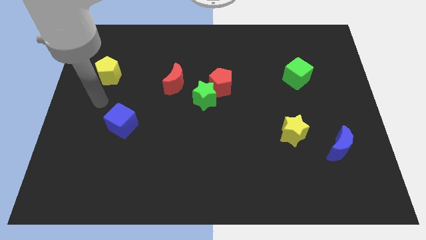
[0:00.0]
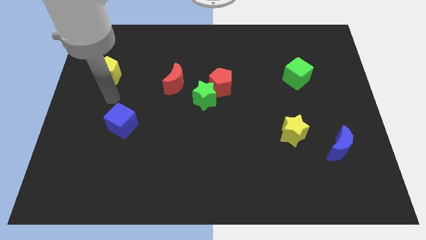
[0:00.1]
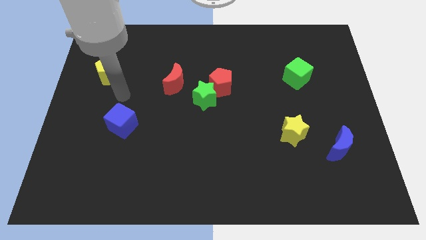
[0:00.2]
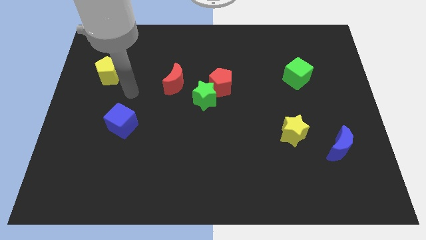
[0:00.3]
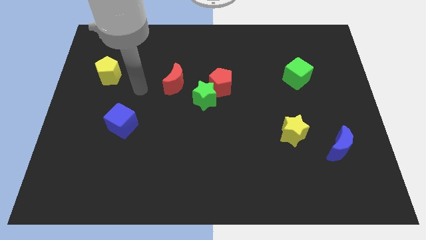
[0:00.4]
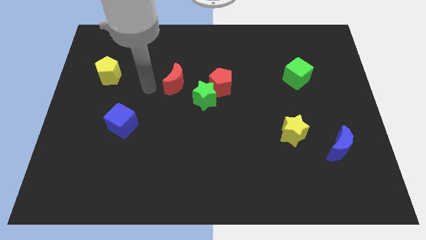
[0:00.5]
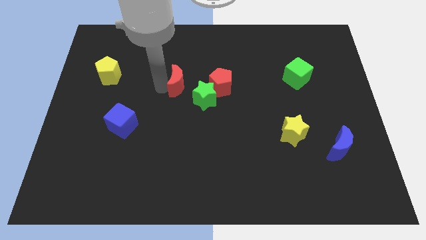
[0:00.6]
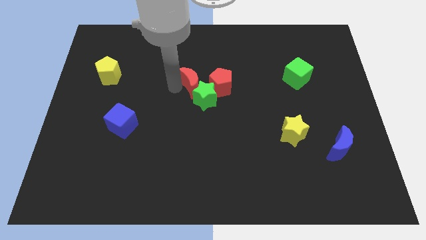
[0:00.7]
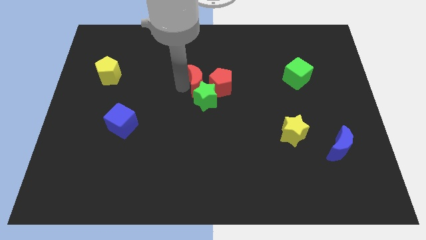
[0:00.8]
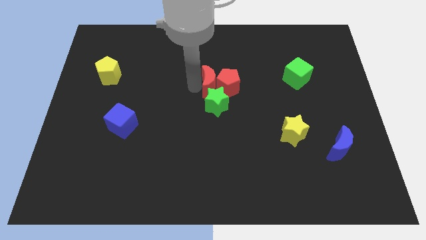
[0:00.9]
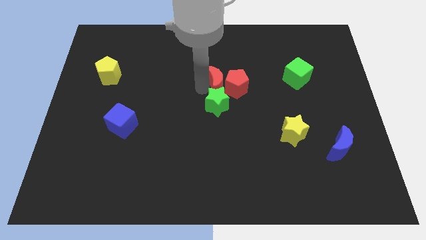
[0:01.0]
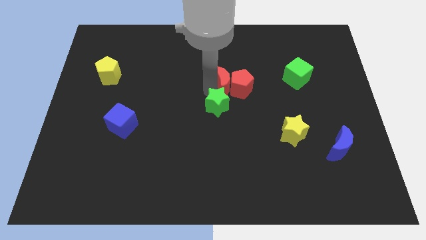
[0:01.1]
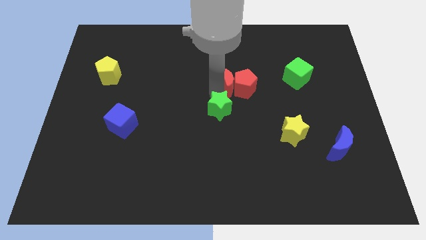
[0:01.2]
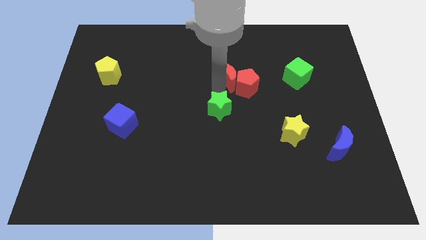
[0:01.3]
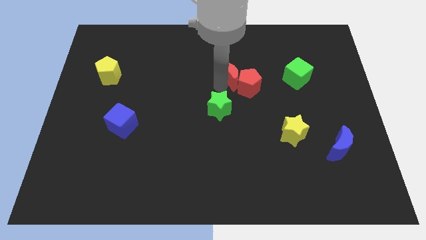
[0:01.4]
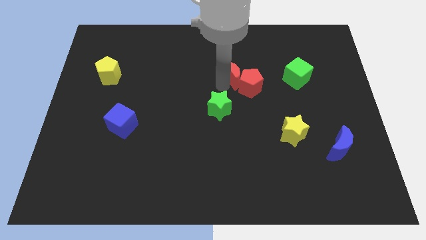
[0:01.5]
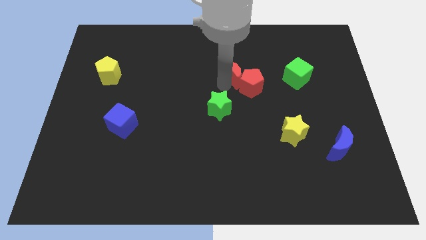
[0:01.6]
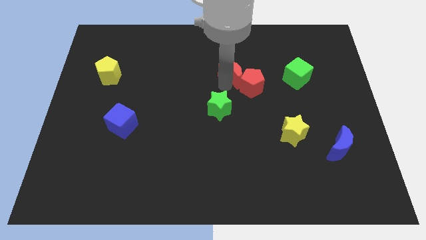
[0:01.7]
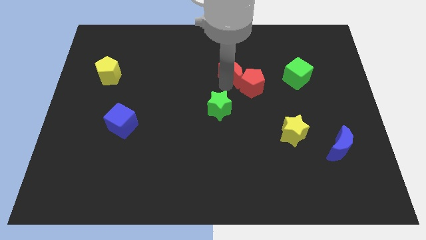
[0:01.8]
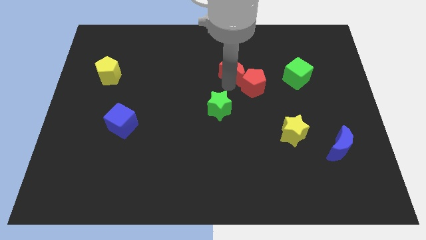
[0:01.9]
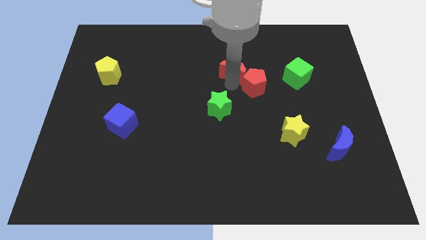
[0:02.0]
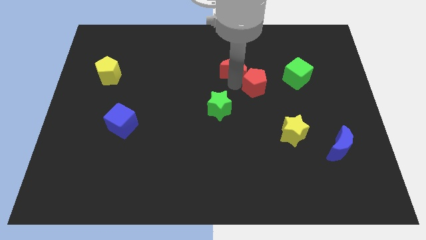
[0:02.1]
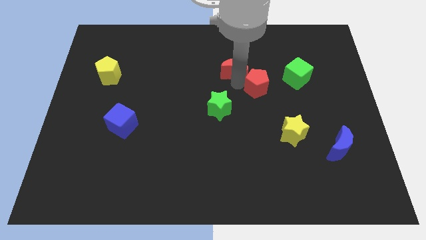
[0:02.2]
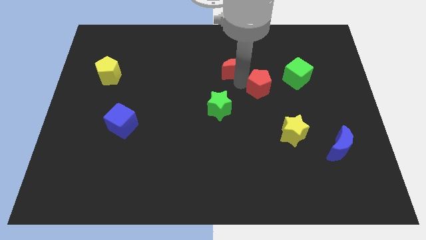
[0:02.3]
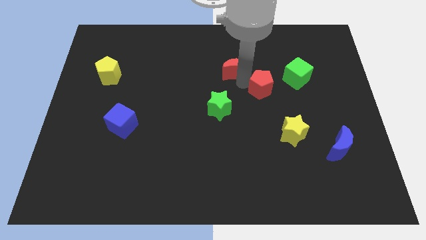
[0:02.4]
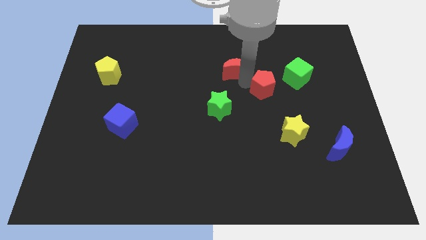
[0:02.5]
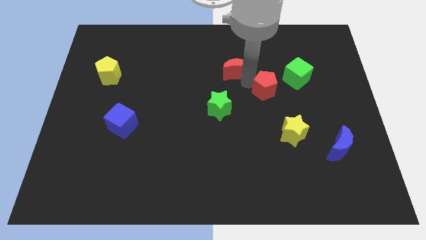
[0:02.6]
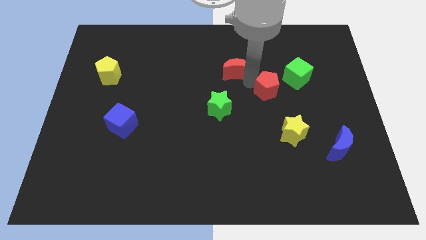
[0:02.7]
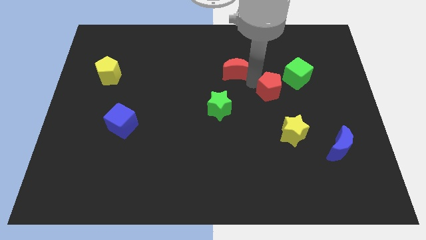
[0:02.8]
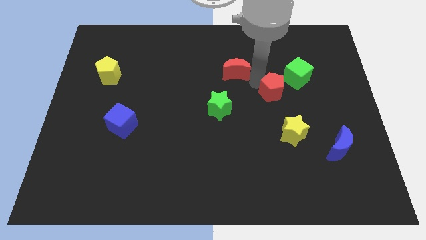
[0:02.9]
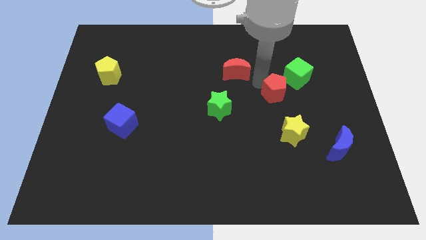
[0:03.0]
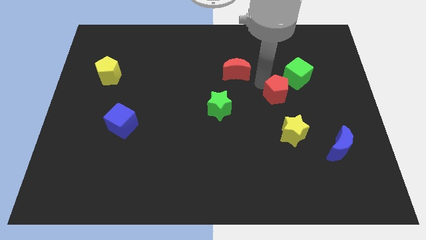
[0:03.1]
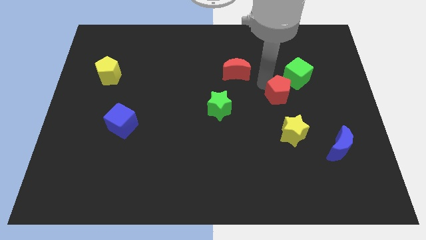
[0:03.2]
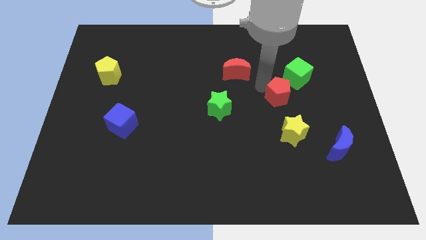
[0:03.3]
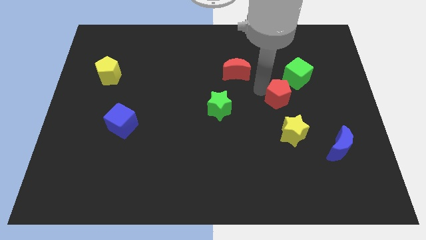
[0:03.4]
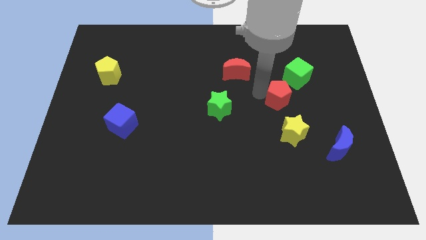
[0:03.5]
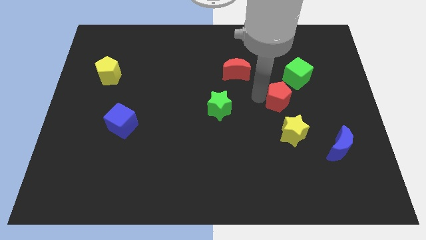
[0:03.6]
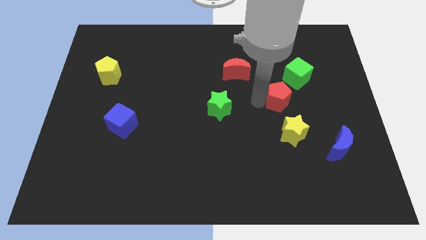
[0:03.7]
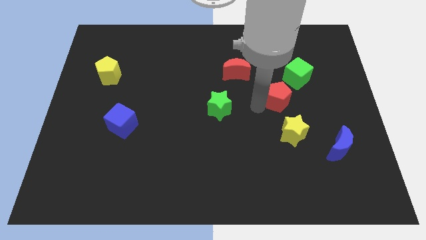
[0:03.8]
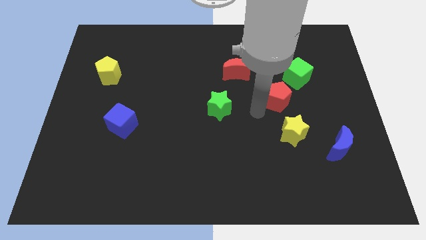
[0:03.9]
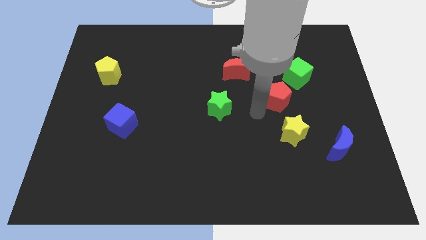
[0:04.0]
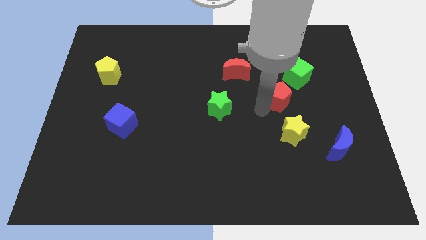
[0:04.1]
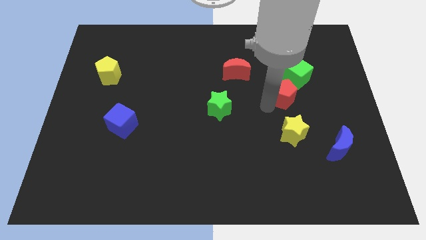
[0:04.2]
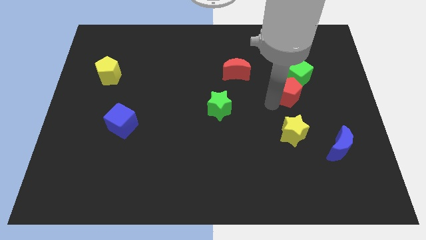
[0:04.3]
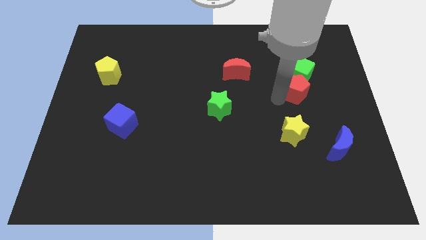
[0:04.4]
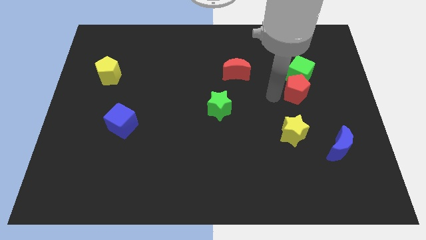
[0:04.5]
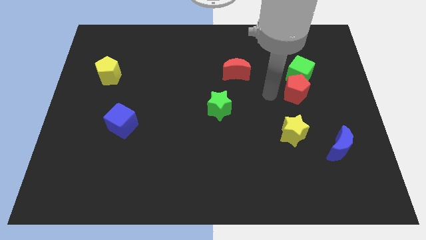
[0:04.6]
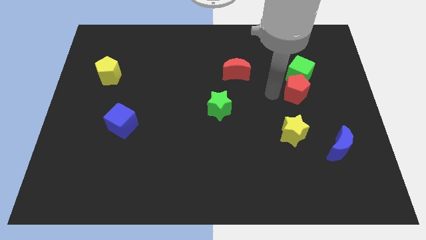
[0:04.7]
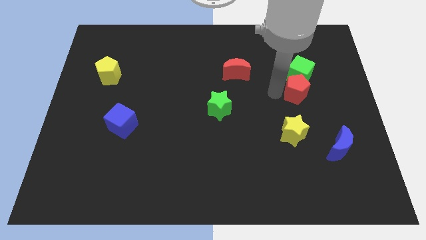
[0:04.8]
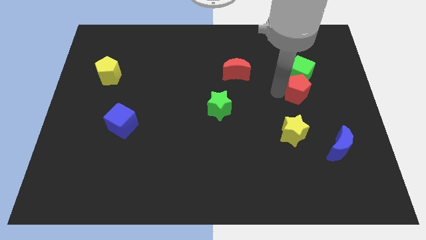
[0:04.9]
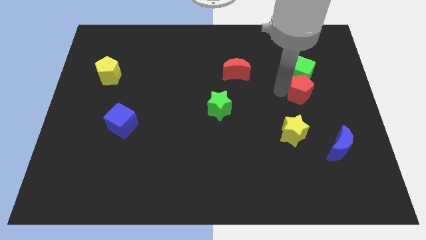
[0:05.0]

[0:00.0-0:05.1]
move the red pentagon to the bottom right of the green cube

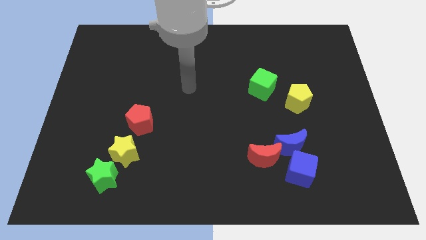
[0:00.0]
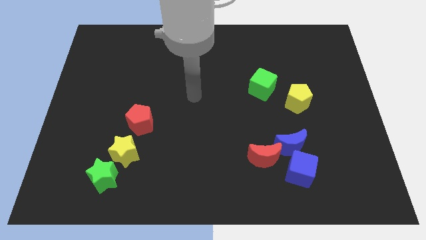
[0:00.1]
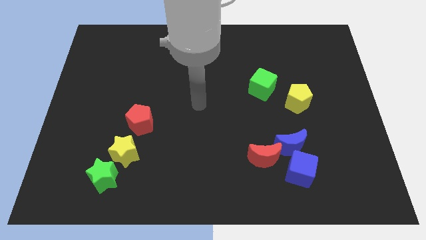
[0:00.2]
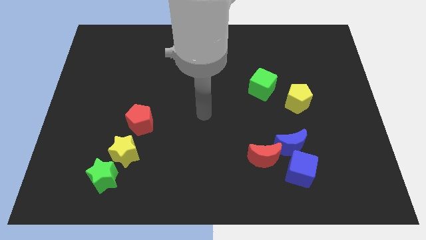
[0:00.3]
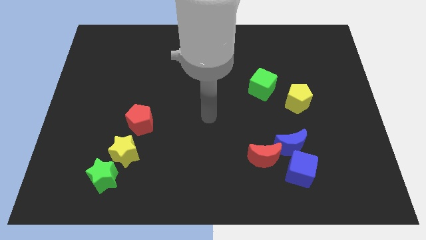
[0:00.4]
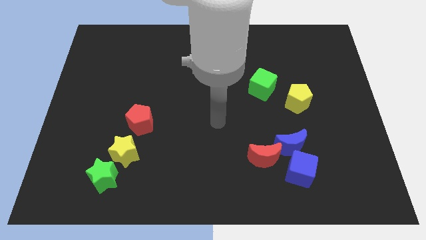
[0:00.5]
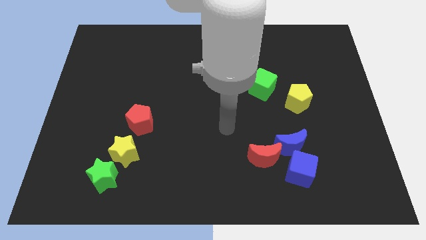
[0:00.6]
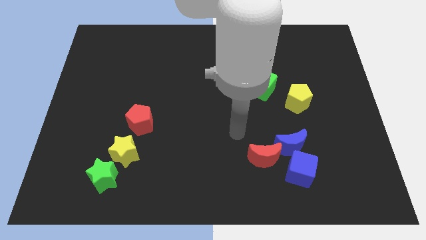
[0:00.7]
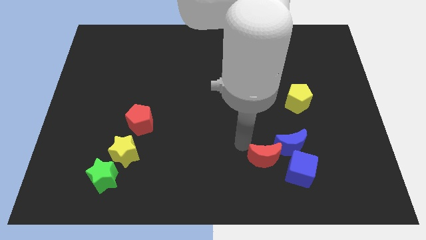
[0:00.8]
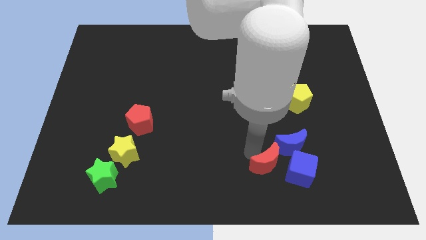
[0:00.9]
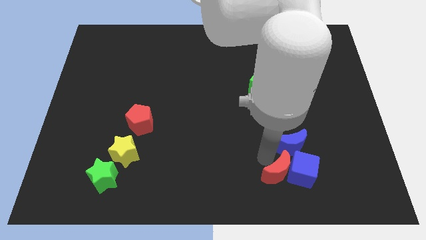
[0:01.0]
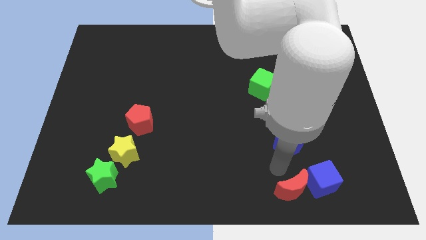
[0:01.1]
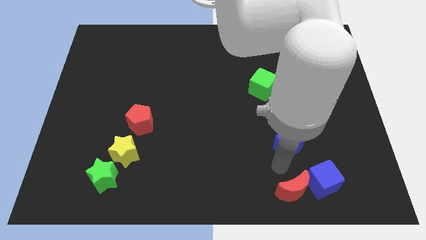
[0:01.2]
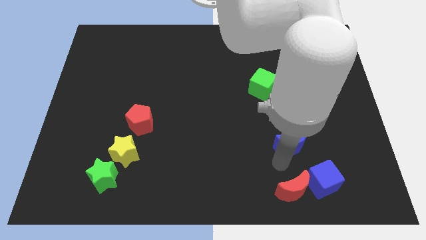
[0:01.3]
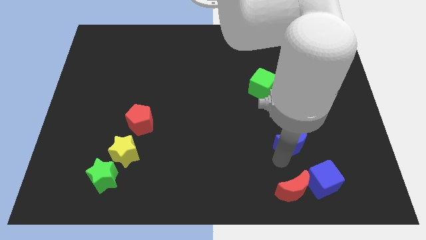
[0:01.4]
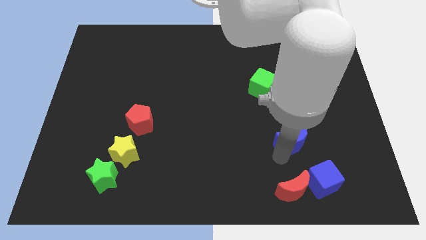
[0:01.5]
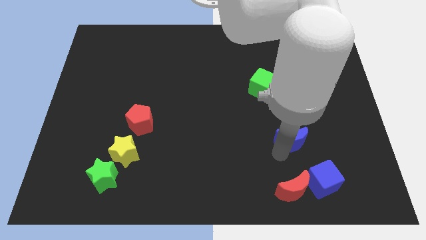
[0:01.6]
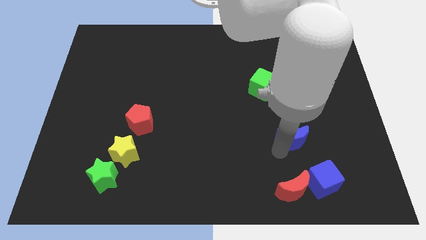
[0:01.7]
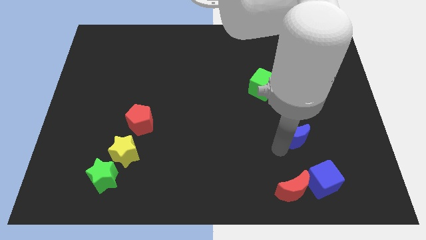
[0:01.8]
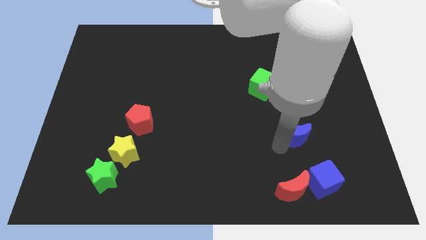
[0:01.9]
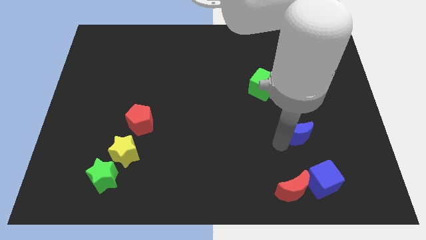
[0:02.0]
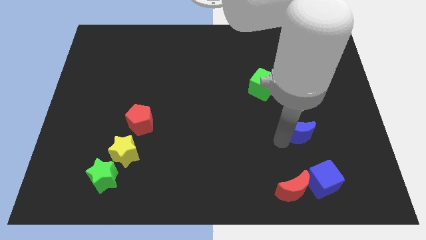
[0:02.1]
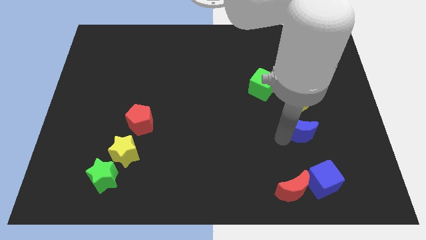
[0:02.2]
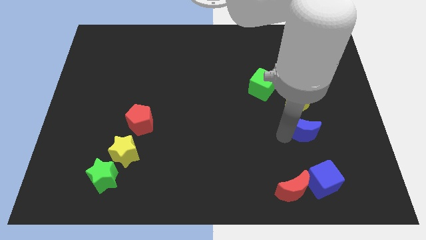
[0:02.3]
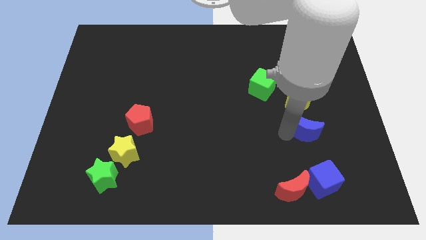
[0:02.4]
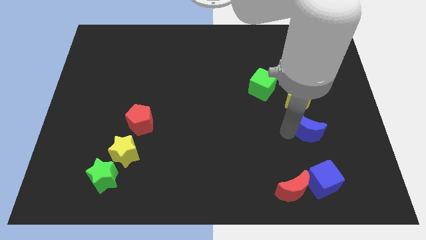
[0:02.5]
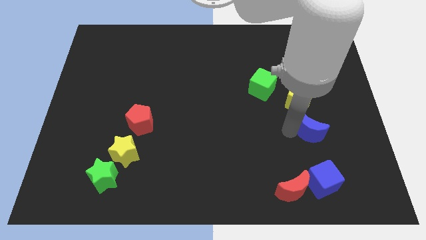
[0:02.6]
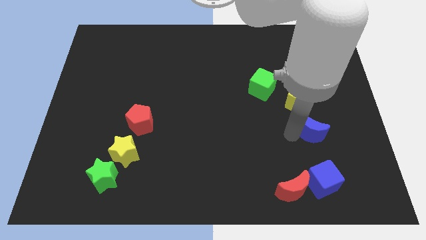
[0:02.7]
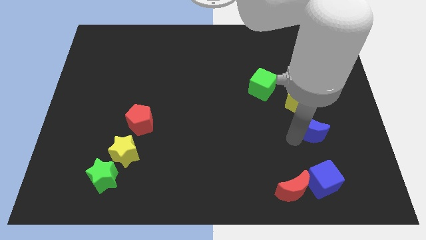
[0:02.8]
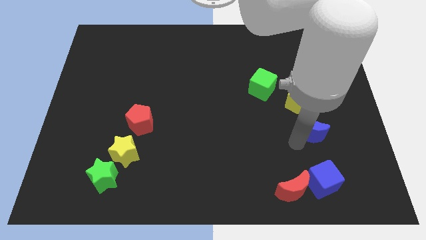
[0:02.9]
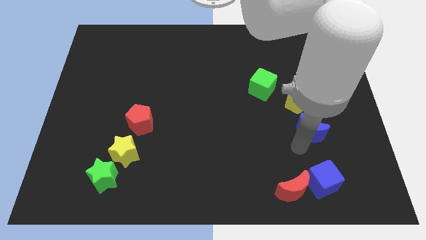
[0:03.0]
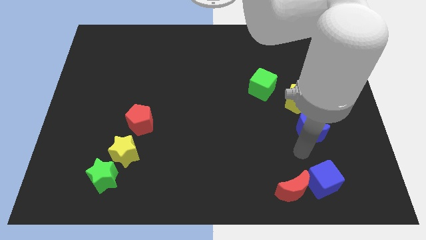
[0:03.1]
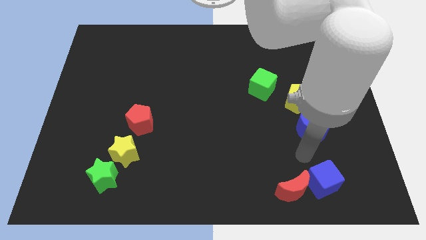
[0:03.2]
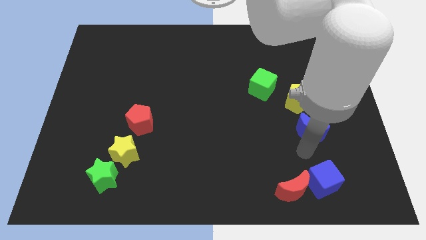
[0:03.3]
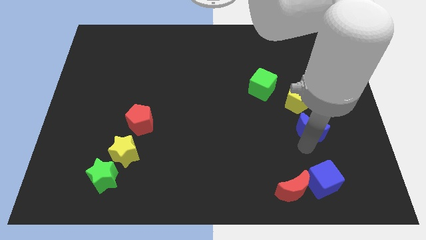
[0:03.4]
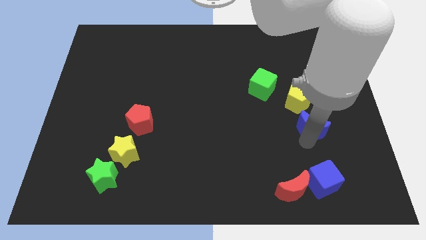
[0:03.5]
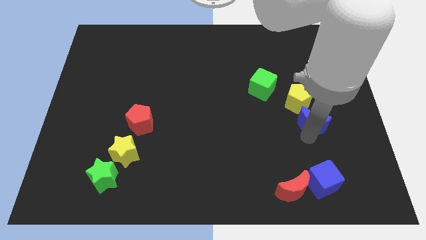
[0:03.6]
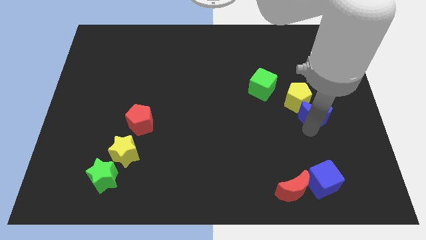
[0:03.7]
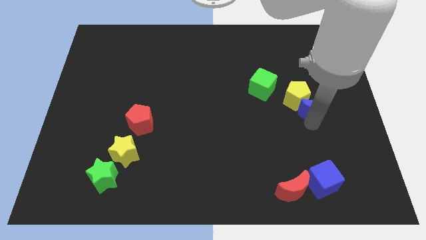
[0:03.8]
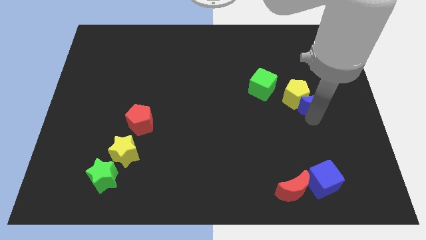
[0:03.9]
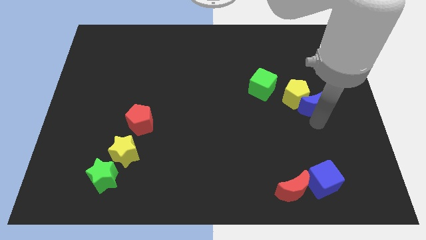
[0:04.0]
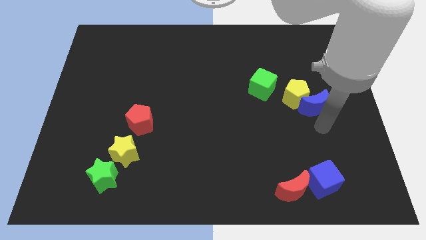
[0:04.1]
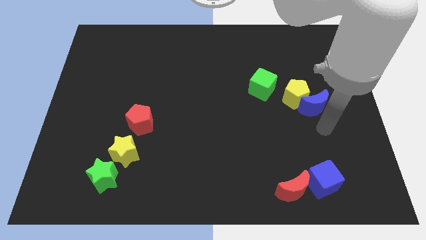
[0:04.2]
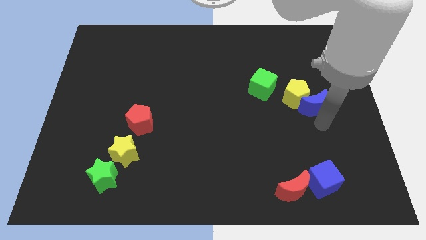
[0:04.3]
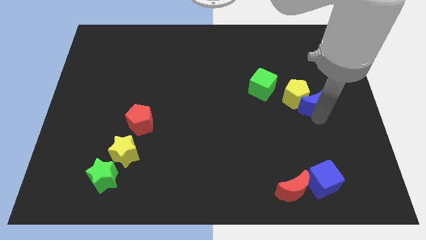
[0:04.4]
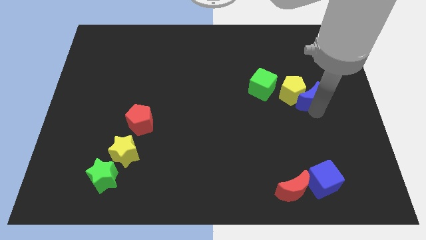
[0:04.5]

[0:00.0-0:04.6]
put the blue moon right of the green cube
